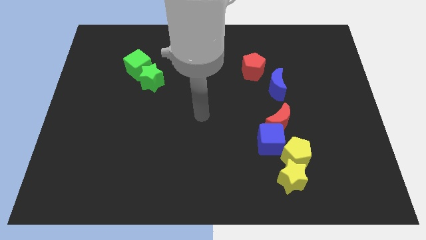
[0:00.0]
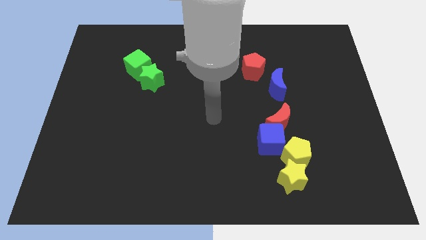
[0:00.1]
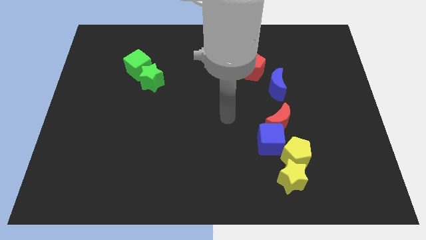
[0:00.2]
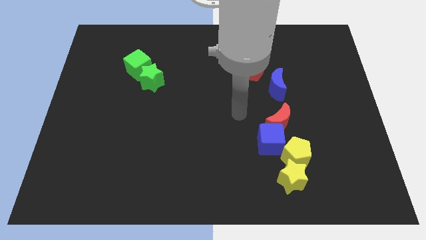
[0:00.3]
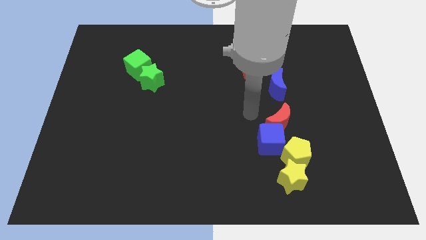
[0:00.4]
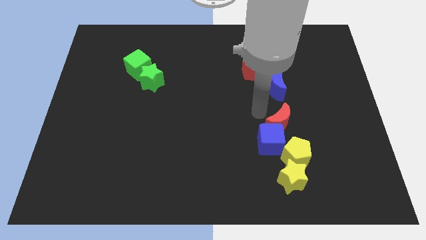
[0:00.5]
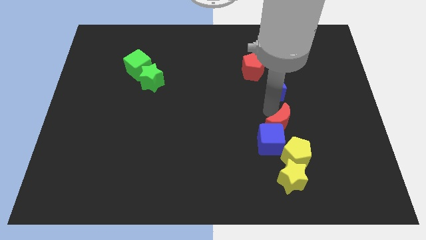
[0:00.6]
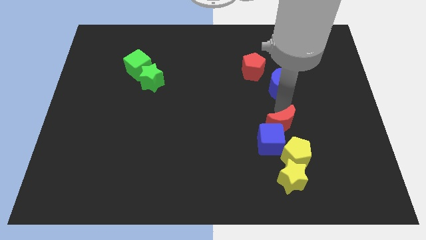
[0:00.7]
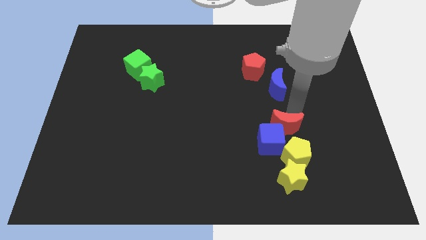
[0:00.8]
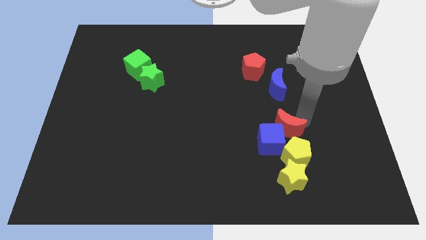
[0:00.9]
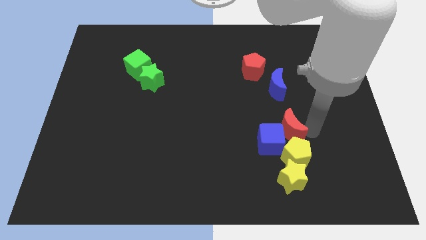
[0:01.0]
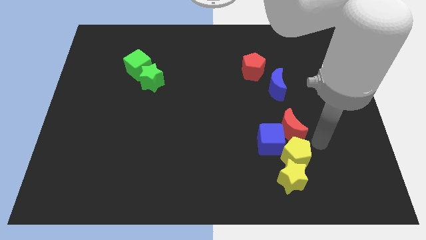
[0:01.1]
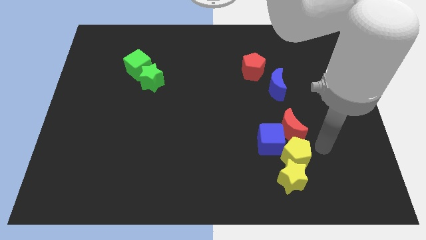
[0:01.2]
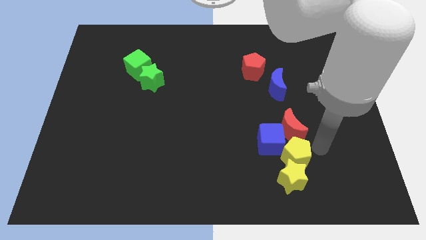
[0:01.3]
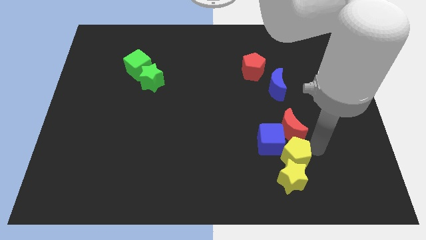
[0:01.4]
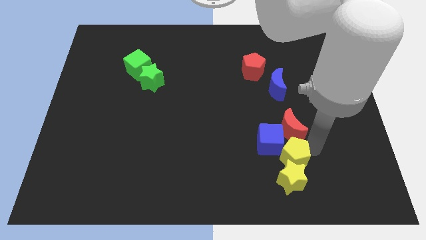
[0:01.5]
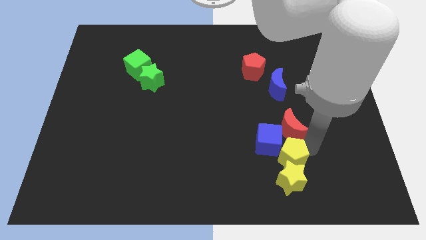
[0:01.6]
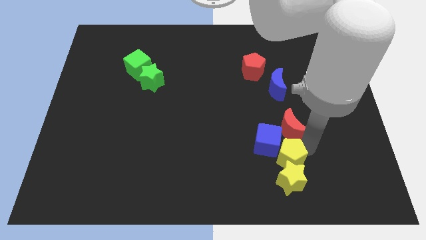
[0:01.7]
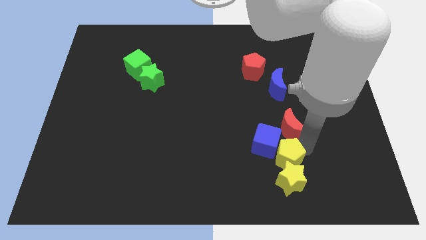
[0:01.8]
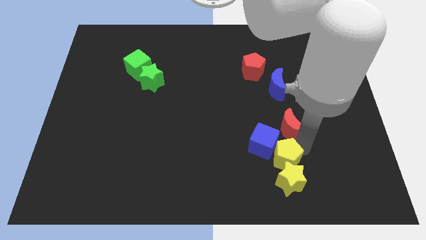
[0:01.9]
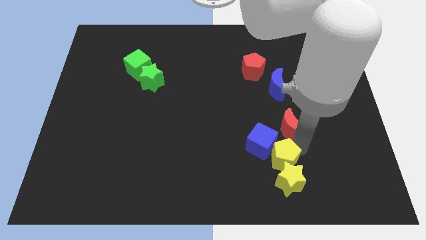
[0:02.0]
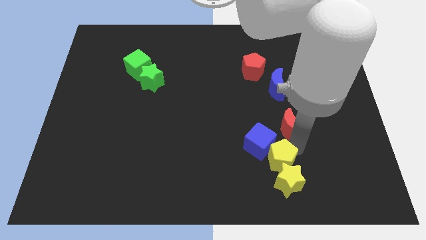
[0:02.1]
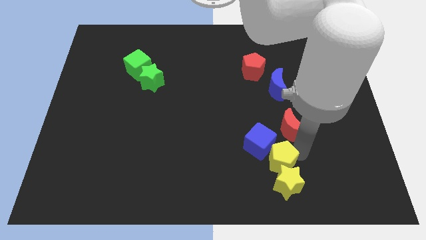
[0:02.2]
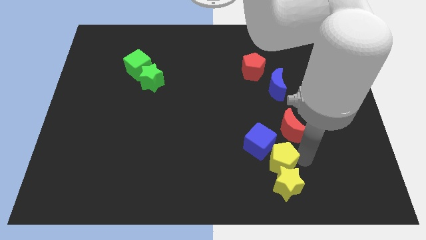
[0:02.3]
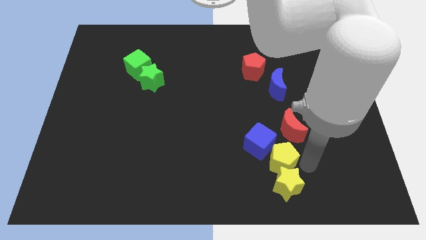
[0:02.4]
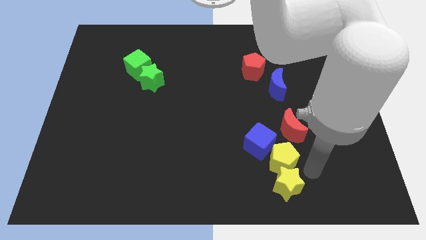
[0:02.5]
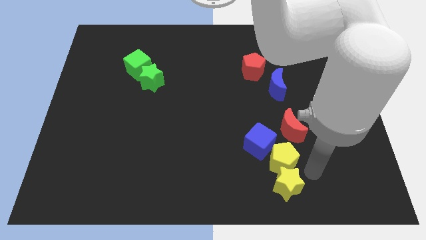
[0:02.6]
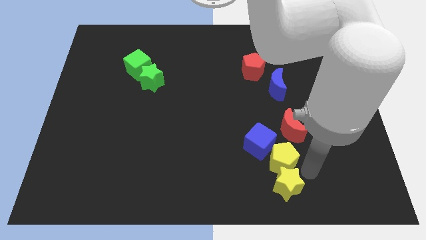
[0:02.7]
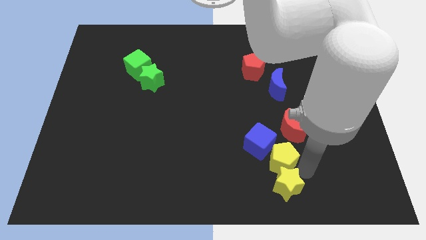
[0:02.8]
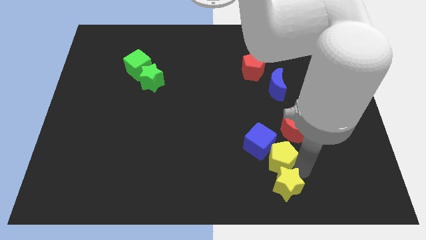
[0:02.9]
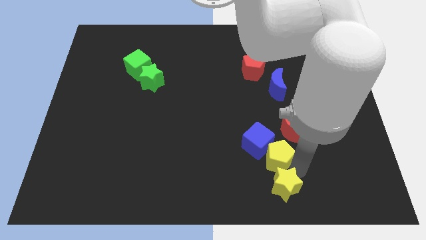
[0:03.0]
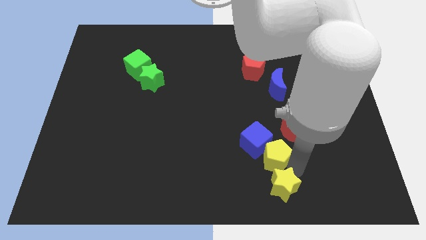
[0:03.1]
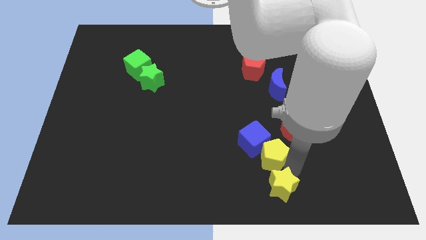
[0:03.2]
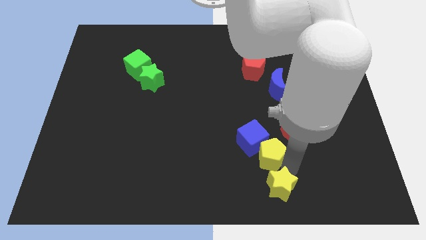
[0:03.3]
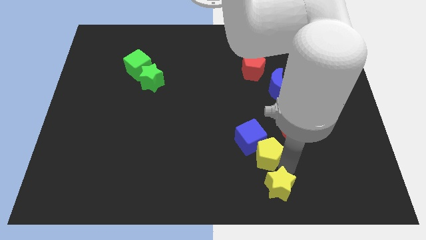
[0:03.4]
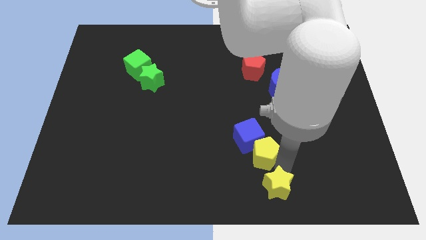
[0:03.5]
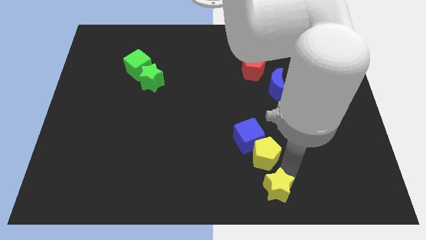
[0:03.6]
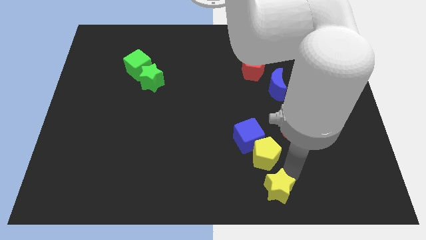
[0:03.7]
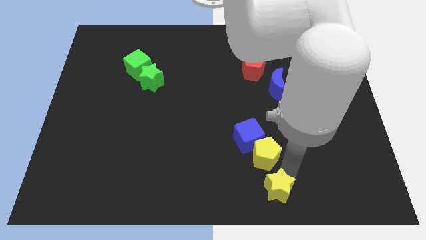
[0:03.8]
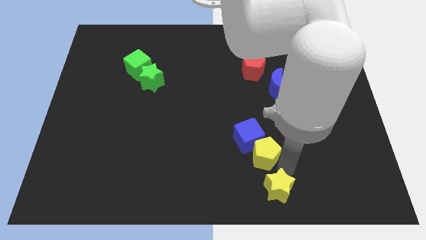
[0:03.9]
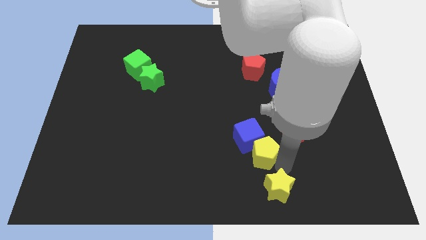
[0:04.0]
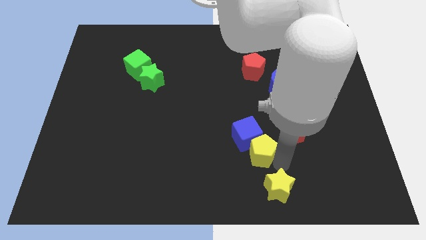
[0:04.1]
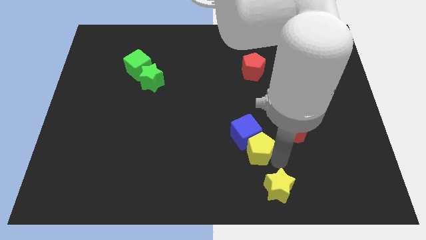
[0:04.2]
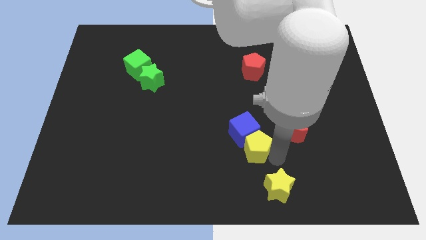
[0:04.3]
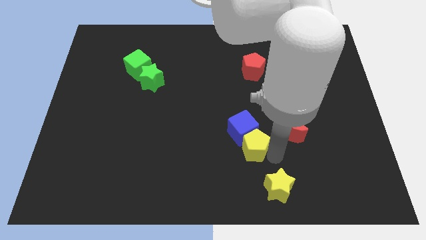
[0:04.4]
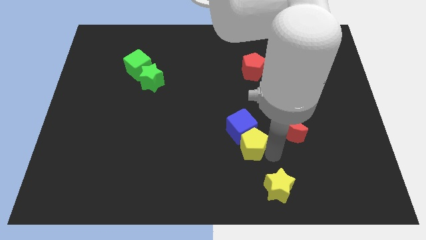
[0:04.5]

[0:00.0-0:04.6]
slightly move the yellow pentagon diagonally up and to the left

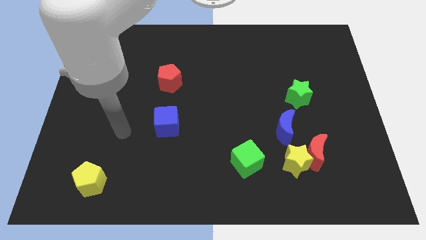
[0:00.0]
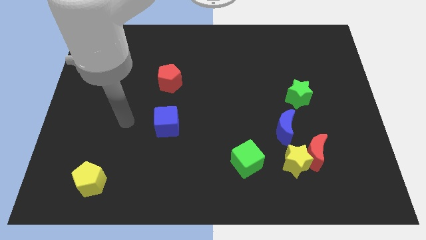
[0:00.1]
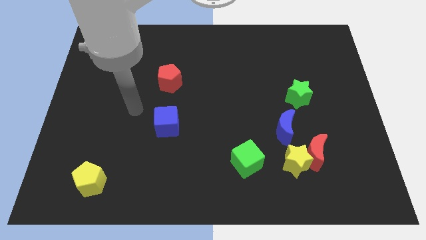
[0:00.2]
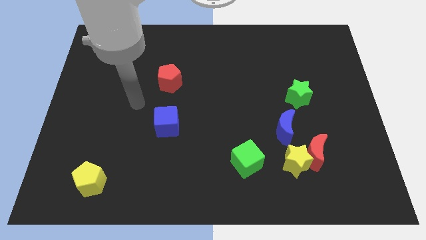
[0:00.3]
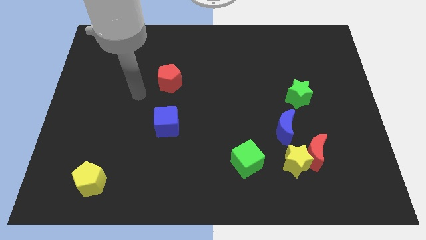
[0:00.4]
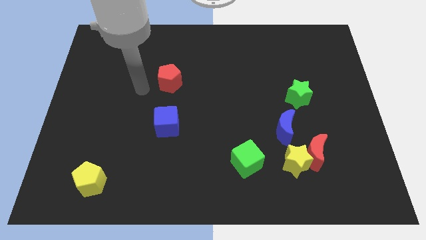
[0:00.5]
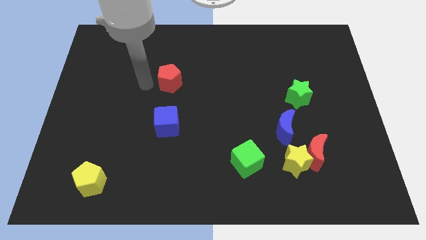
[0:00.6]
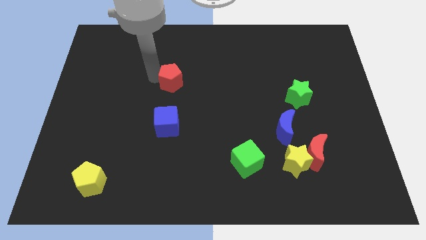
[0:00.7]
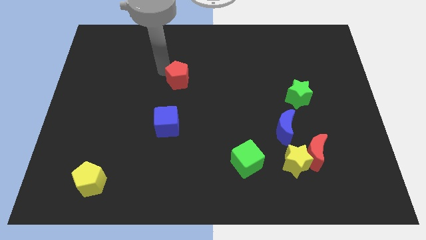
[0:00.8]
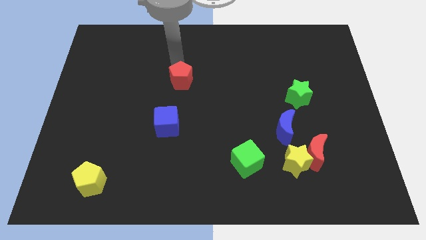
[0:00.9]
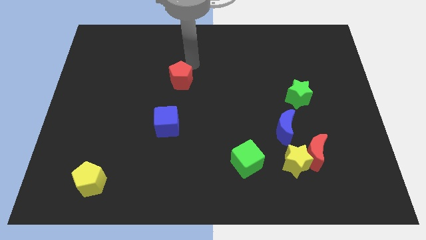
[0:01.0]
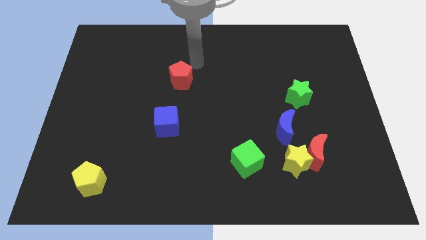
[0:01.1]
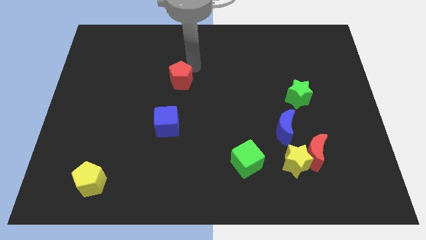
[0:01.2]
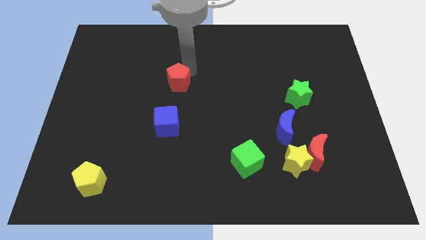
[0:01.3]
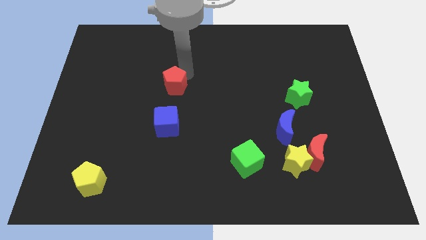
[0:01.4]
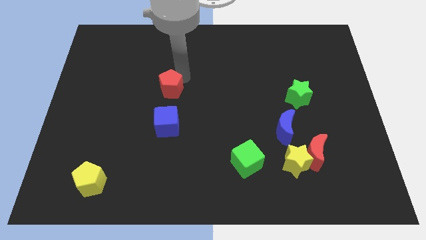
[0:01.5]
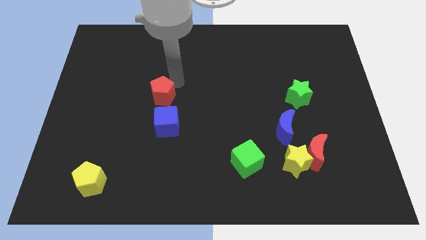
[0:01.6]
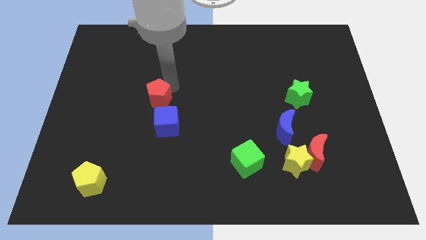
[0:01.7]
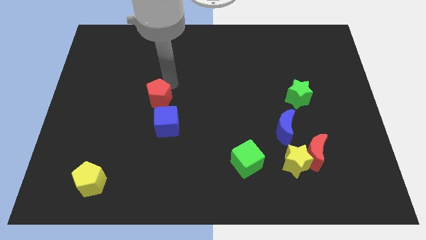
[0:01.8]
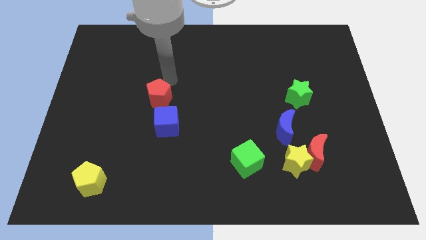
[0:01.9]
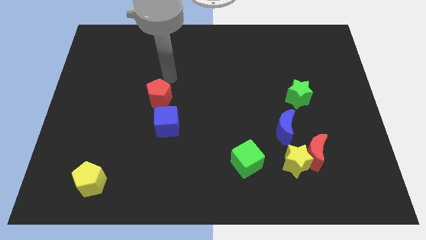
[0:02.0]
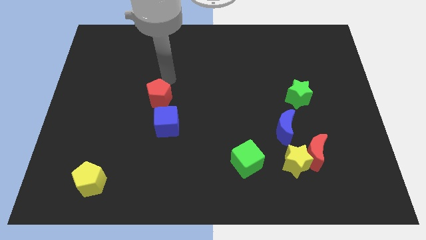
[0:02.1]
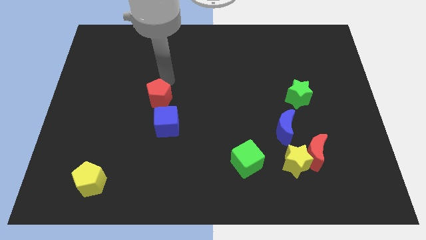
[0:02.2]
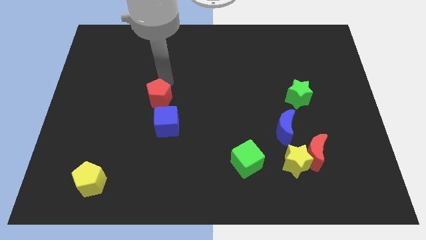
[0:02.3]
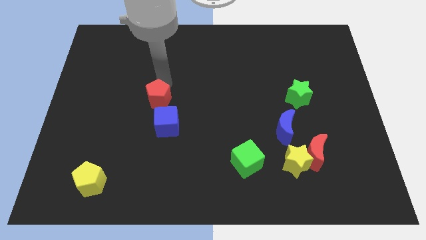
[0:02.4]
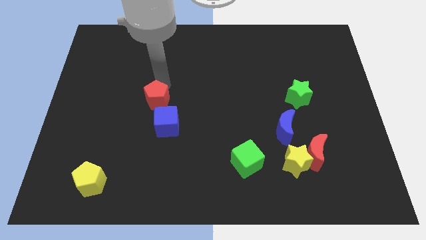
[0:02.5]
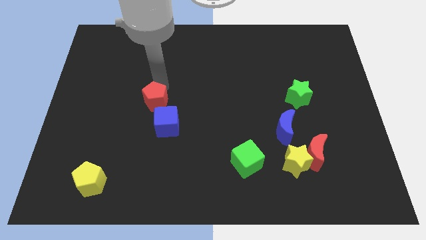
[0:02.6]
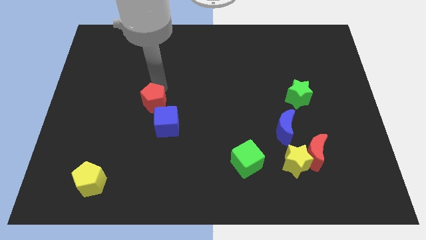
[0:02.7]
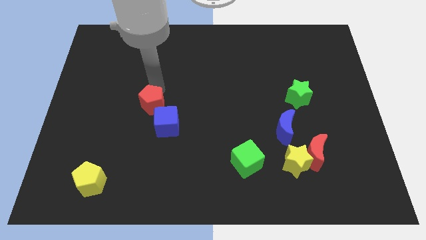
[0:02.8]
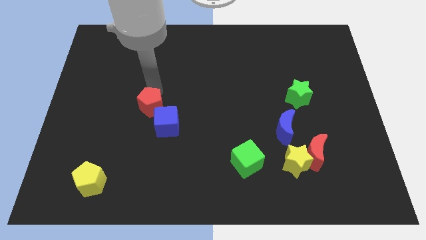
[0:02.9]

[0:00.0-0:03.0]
slide the red pentagon a bit downwards

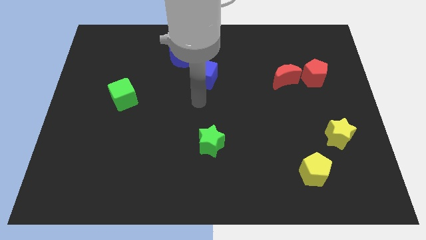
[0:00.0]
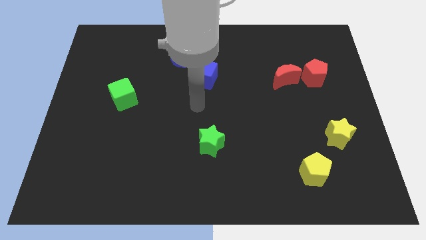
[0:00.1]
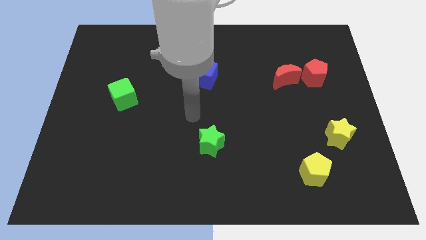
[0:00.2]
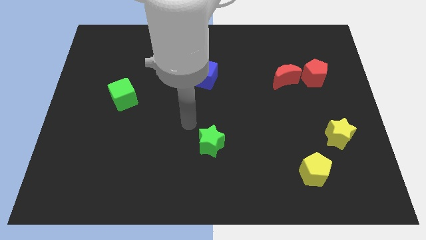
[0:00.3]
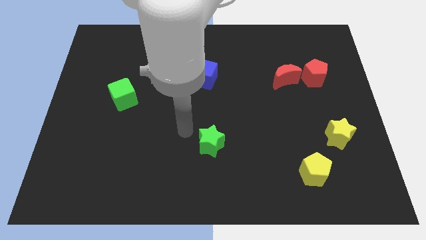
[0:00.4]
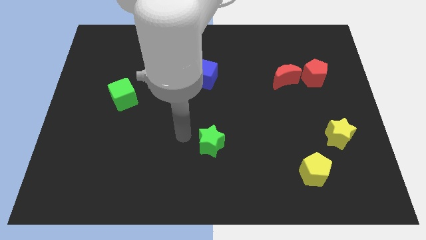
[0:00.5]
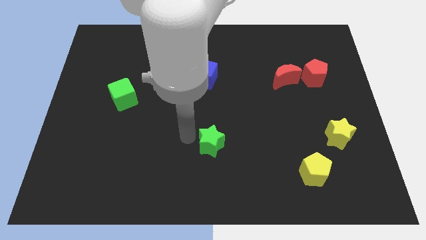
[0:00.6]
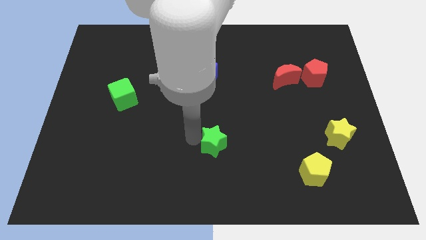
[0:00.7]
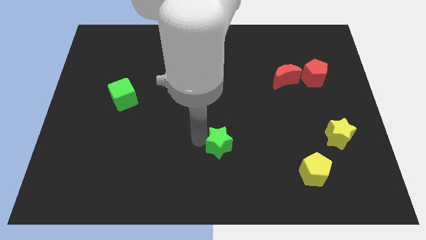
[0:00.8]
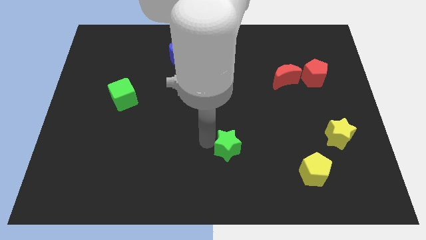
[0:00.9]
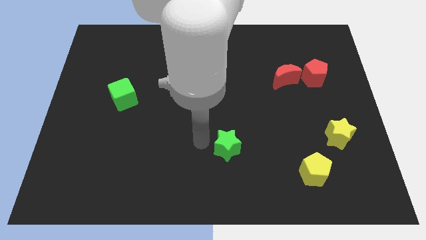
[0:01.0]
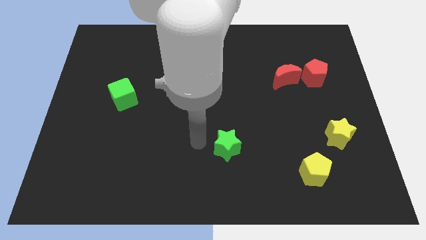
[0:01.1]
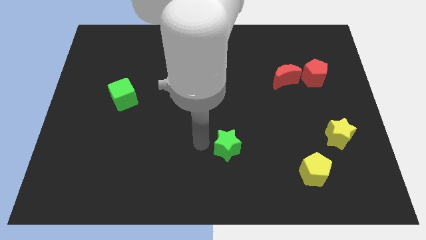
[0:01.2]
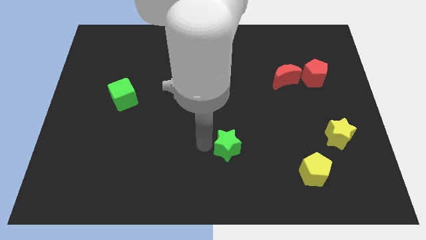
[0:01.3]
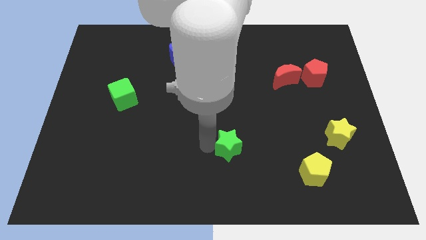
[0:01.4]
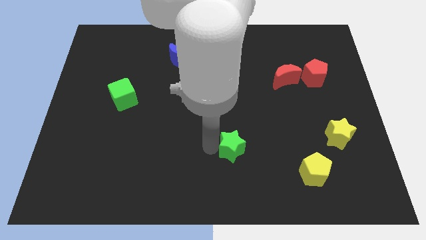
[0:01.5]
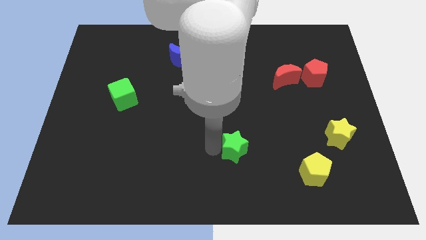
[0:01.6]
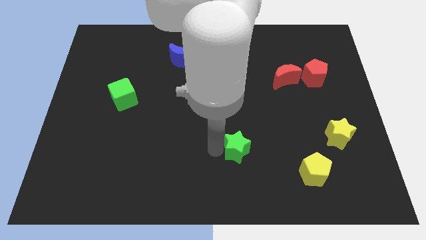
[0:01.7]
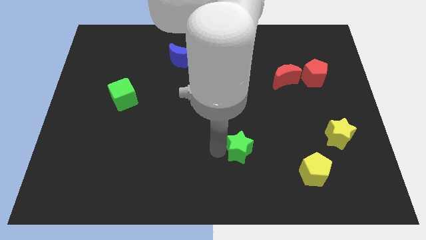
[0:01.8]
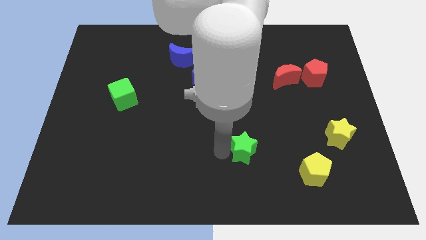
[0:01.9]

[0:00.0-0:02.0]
move the green star somewhat to the right
